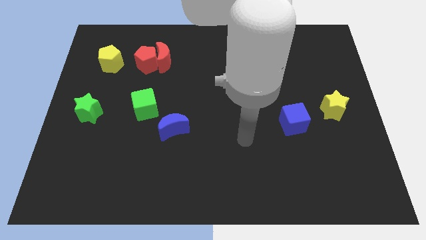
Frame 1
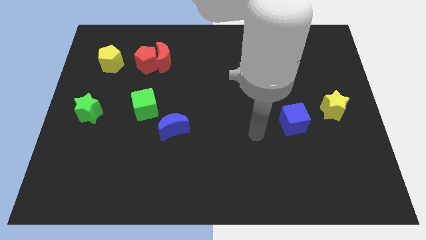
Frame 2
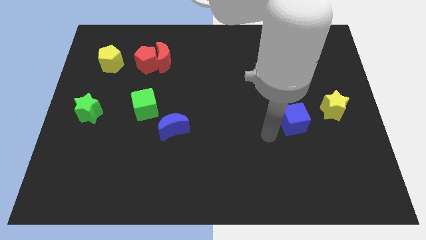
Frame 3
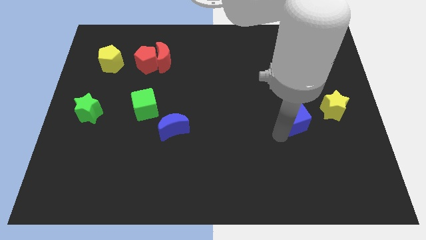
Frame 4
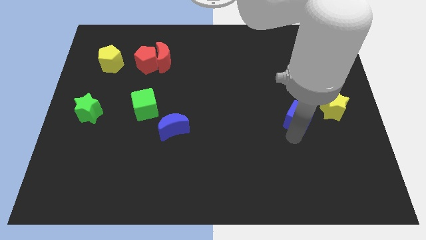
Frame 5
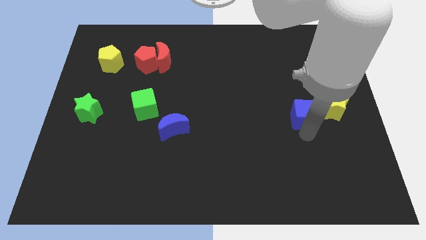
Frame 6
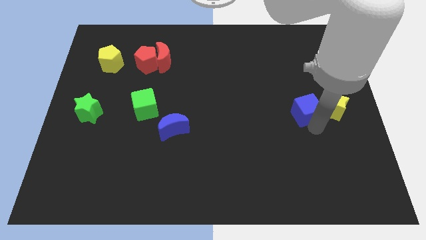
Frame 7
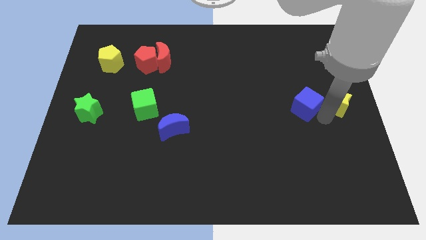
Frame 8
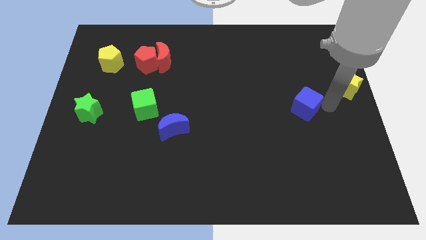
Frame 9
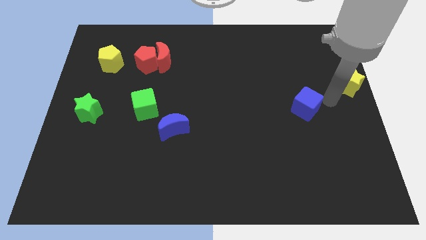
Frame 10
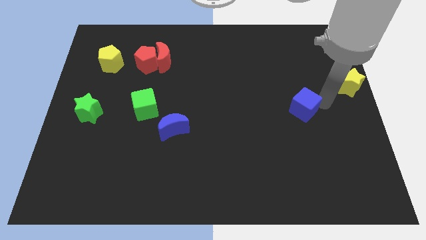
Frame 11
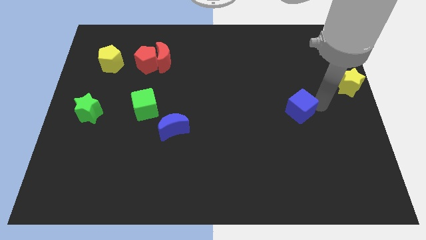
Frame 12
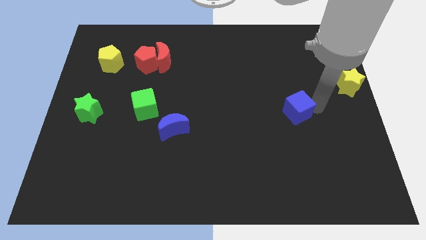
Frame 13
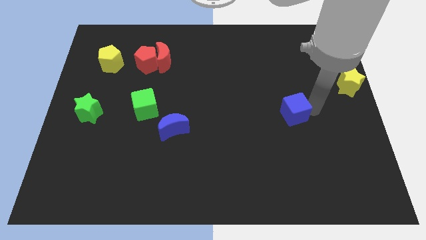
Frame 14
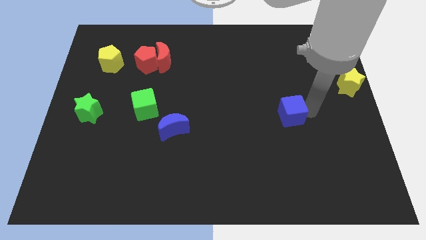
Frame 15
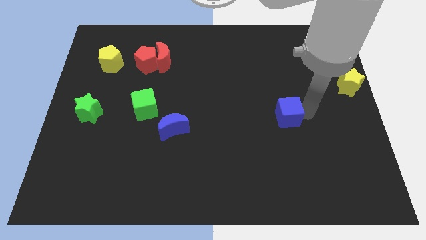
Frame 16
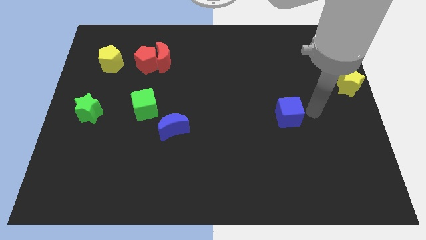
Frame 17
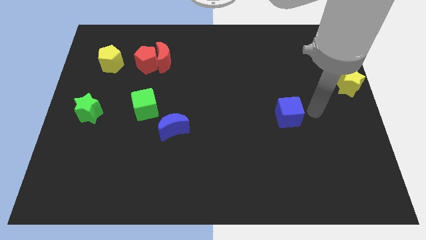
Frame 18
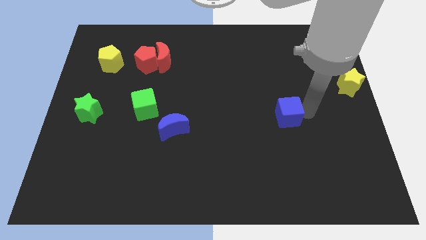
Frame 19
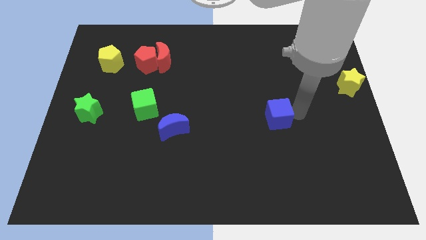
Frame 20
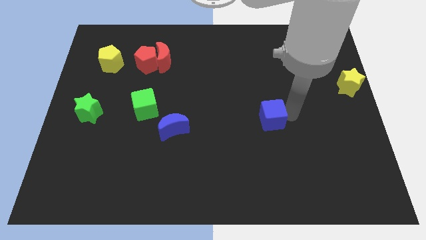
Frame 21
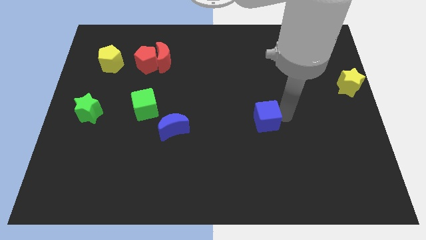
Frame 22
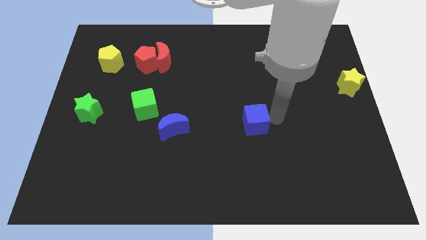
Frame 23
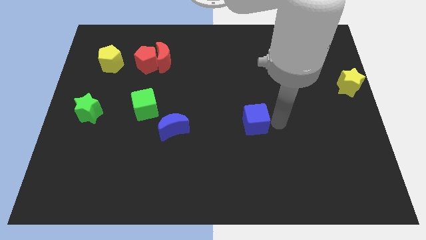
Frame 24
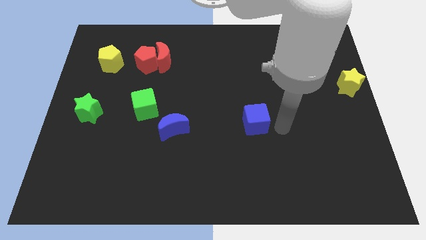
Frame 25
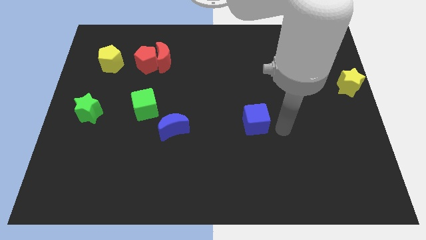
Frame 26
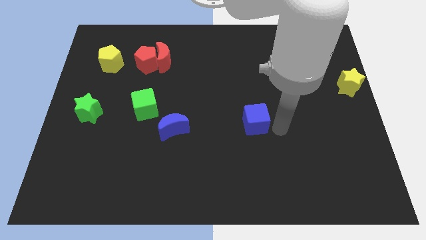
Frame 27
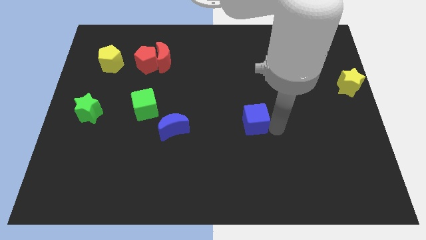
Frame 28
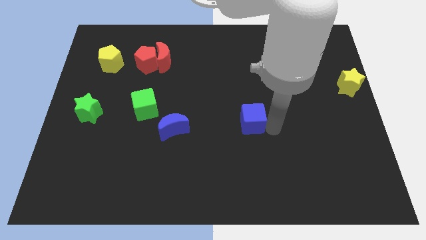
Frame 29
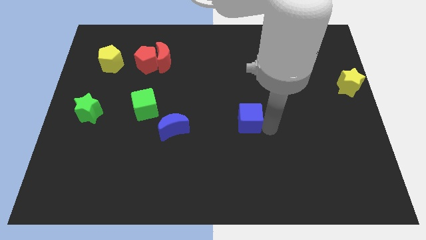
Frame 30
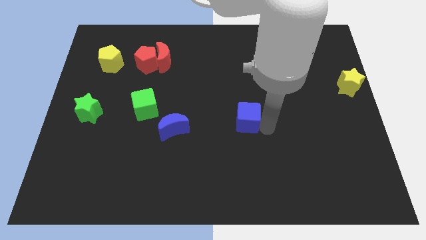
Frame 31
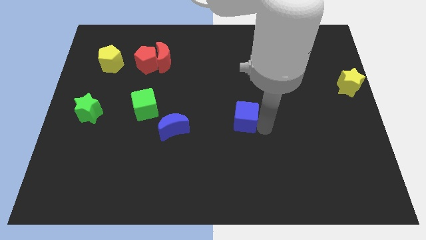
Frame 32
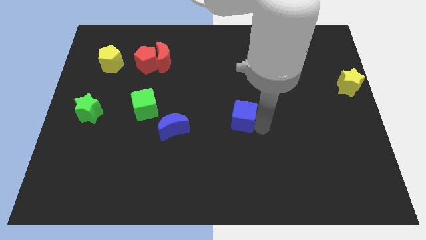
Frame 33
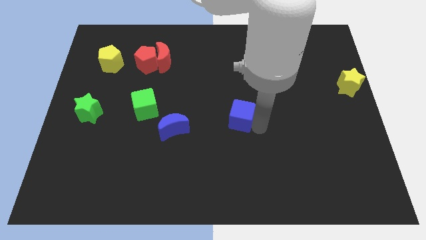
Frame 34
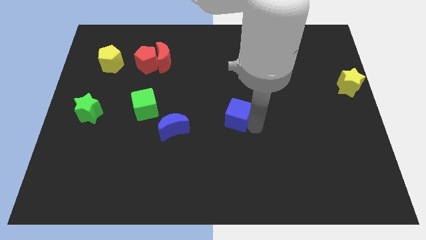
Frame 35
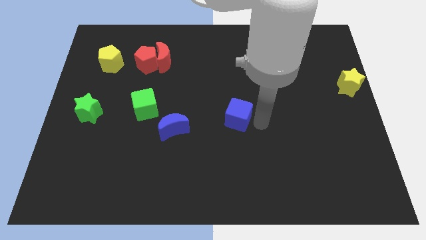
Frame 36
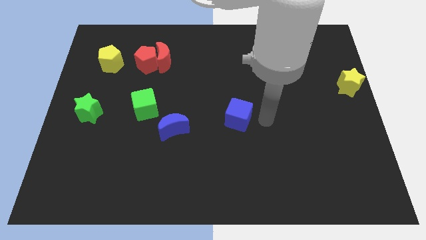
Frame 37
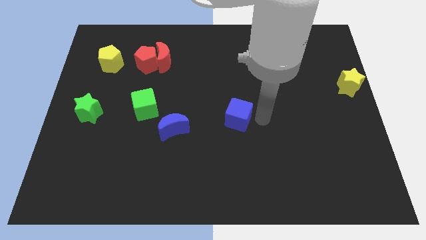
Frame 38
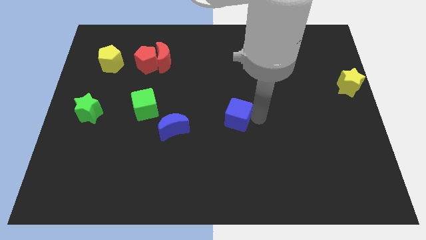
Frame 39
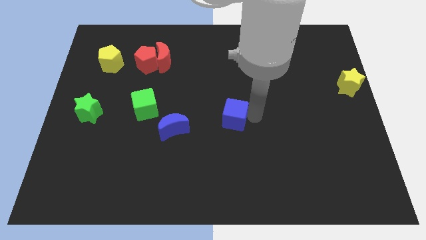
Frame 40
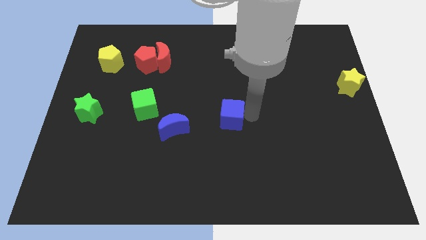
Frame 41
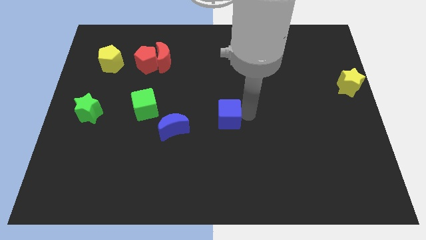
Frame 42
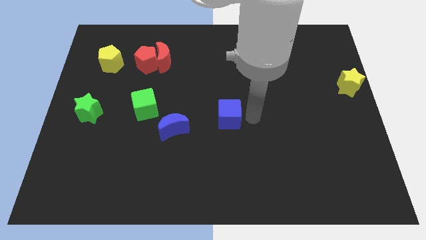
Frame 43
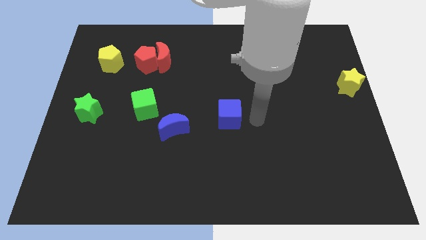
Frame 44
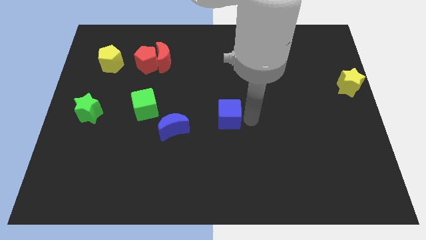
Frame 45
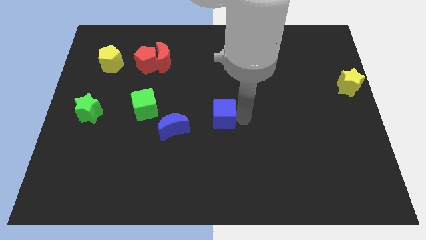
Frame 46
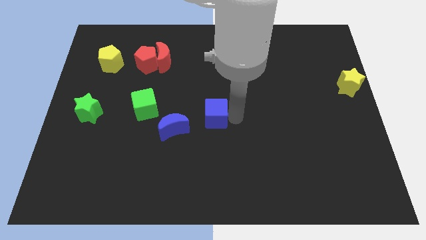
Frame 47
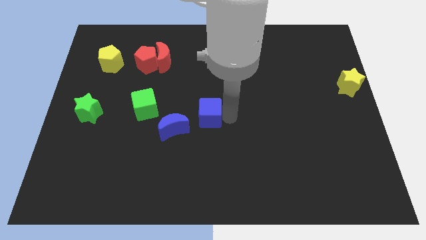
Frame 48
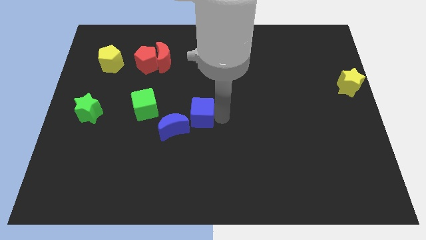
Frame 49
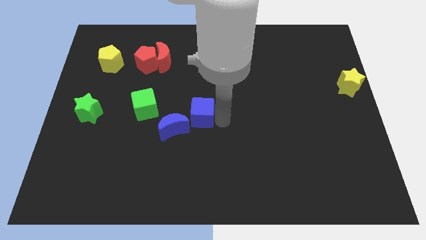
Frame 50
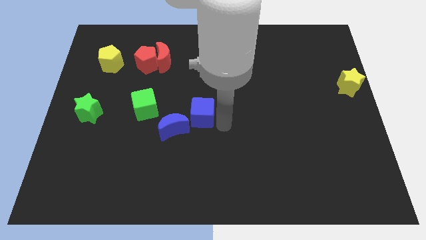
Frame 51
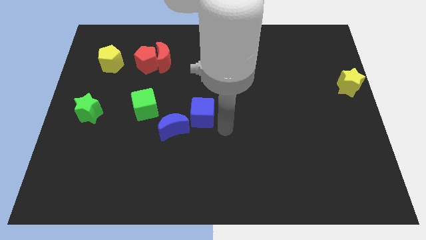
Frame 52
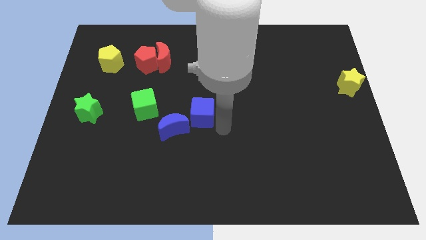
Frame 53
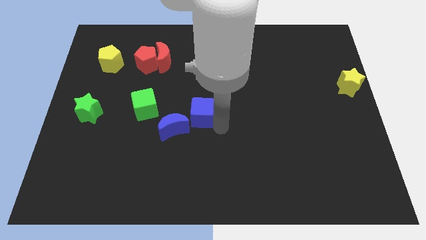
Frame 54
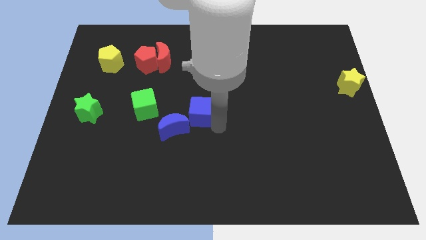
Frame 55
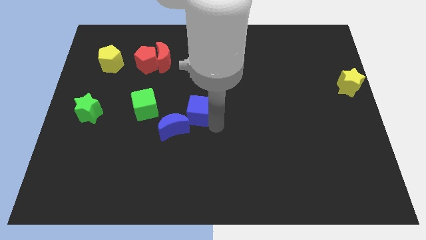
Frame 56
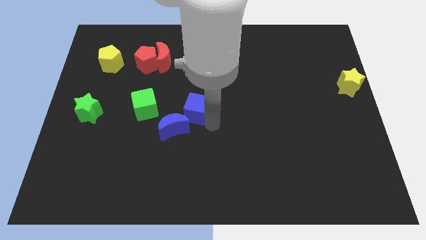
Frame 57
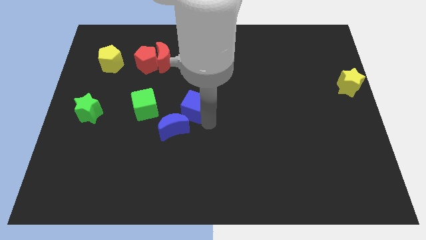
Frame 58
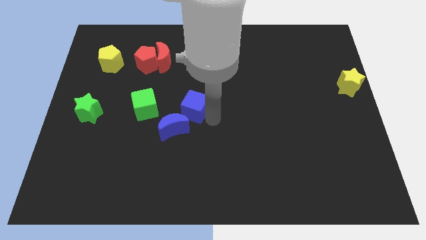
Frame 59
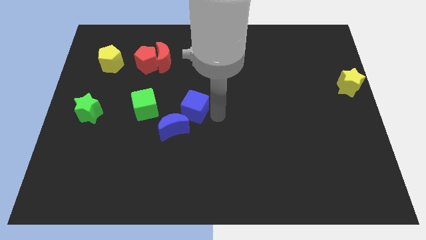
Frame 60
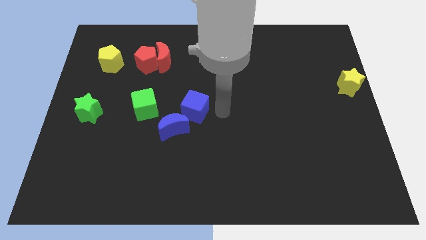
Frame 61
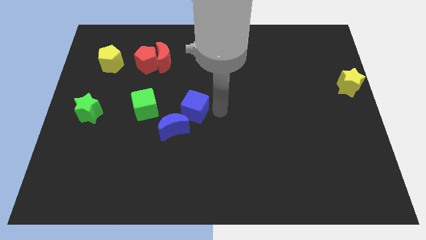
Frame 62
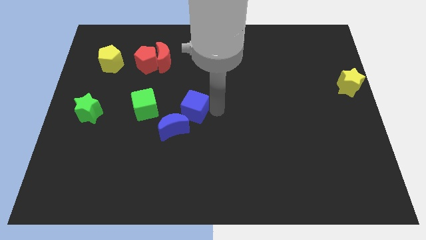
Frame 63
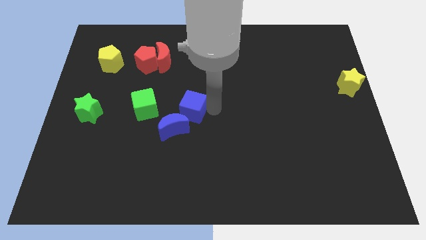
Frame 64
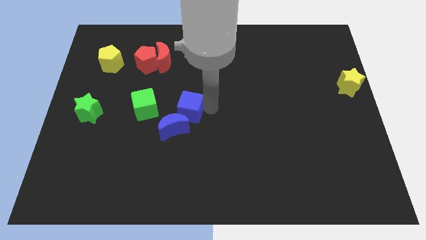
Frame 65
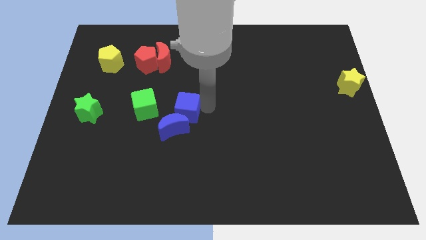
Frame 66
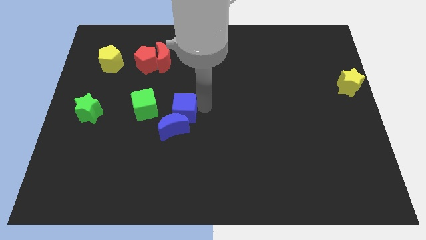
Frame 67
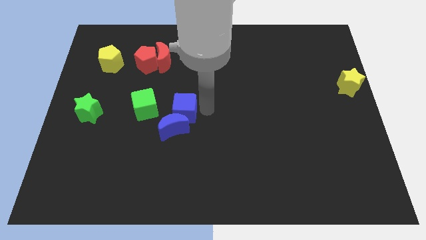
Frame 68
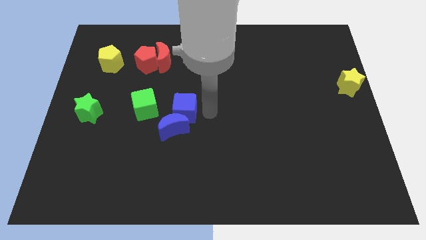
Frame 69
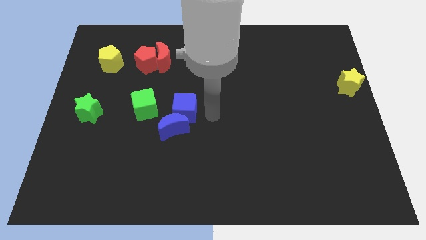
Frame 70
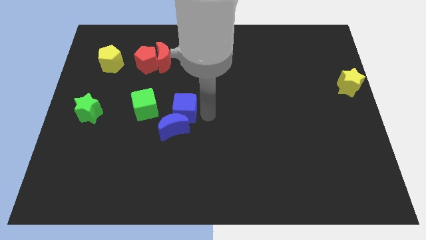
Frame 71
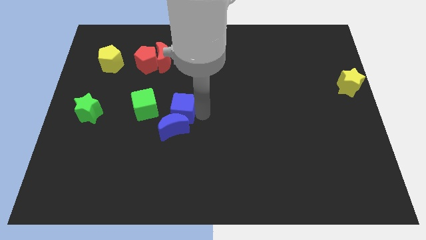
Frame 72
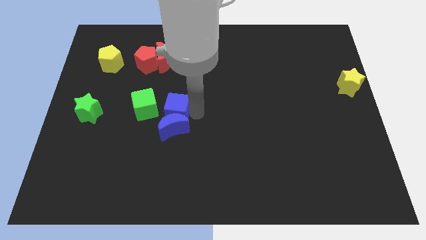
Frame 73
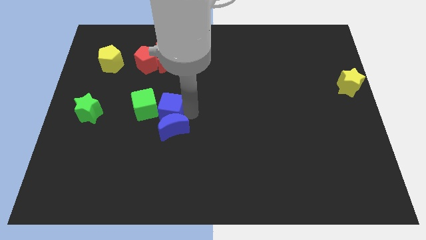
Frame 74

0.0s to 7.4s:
put the blue cube to the green cube
